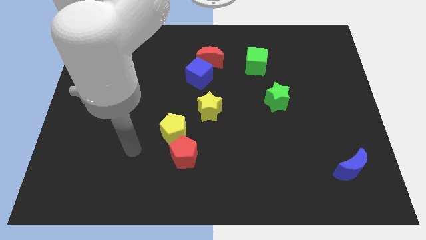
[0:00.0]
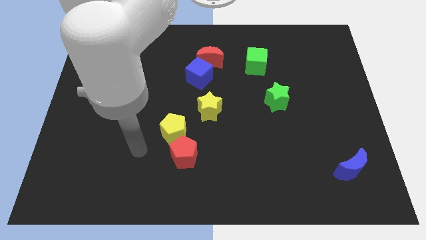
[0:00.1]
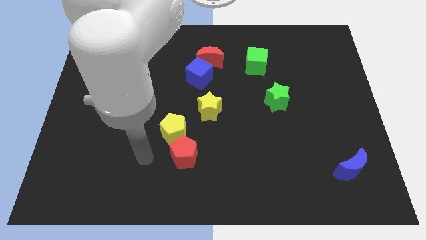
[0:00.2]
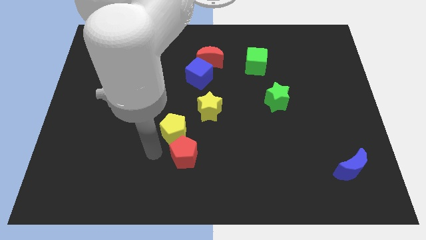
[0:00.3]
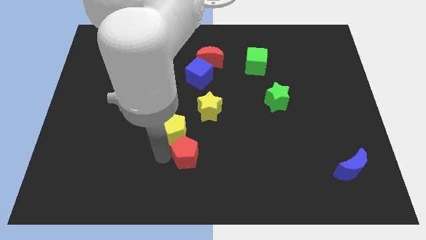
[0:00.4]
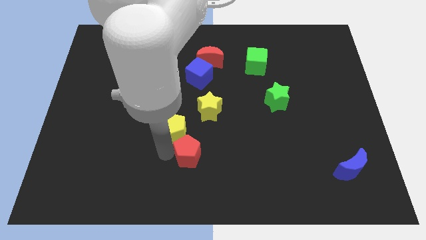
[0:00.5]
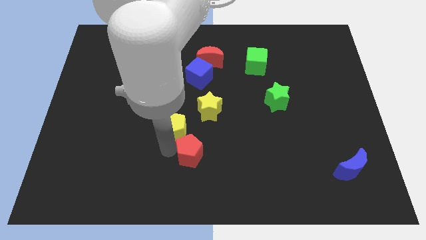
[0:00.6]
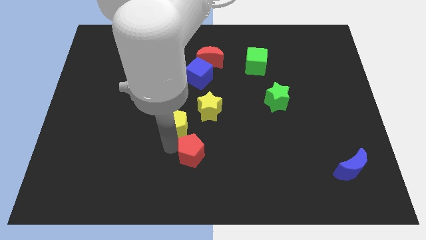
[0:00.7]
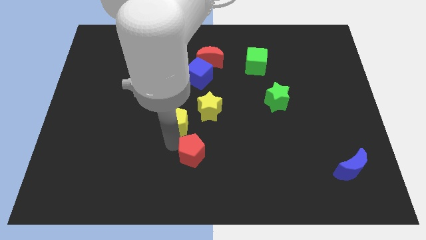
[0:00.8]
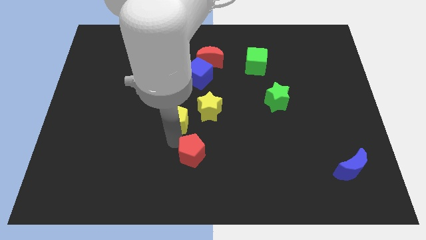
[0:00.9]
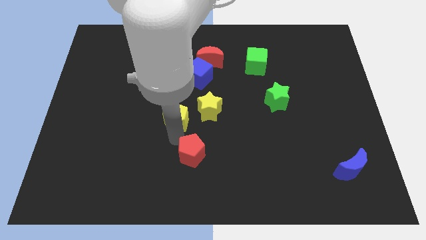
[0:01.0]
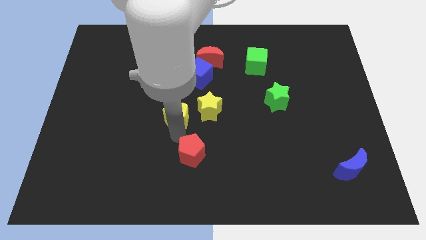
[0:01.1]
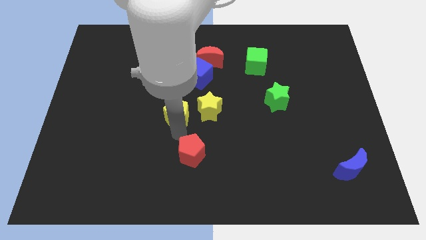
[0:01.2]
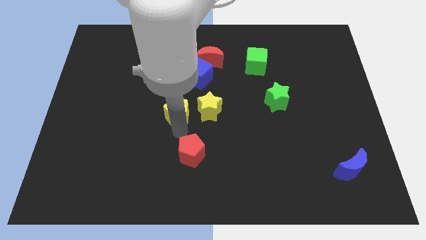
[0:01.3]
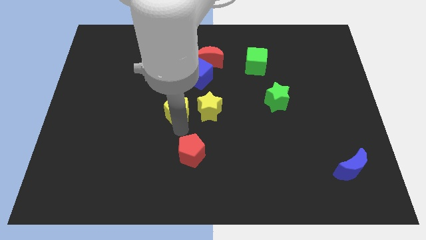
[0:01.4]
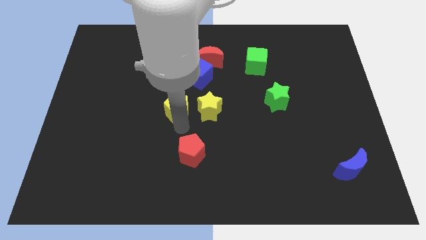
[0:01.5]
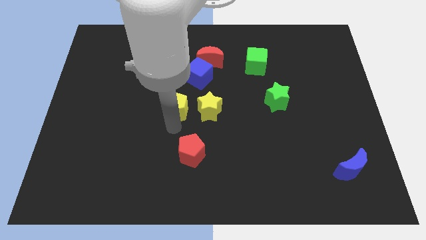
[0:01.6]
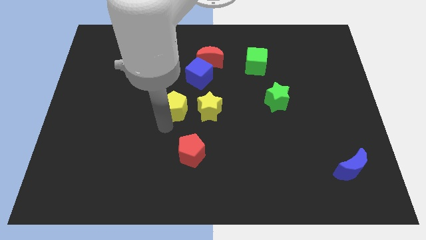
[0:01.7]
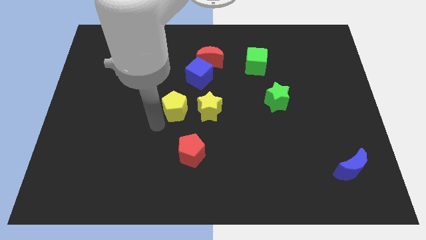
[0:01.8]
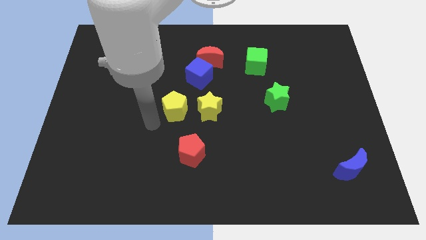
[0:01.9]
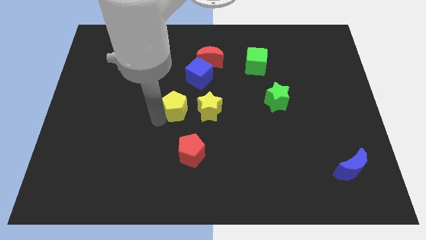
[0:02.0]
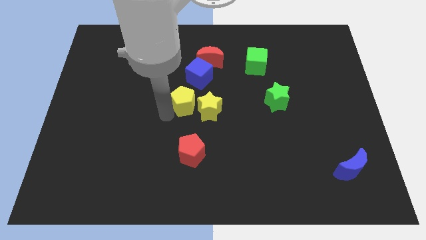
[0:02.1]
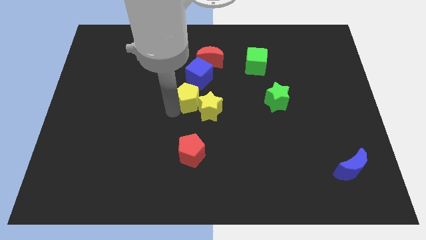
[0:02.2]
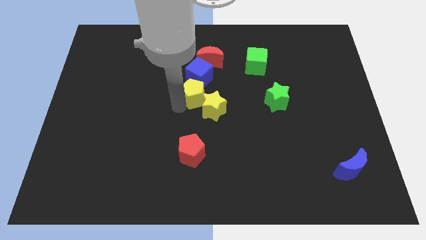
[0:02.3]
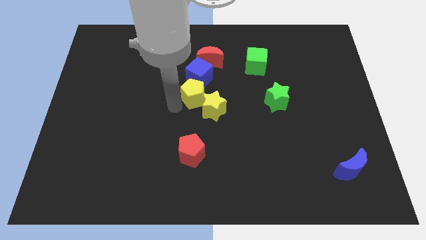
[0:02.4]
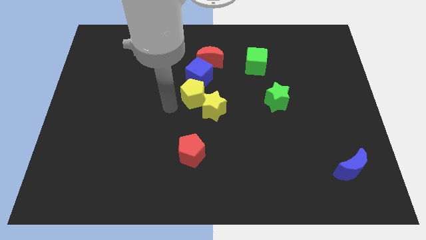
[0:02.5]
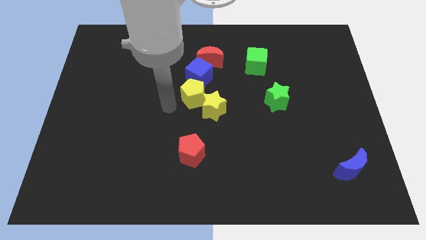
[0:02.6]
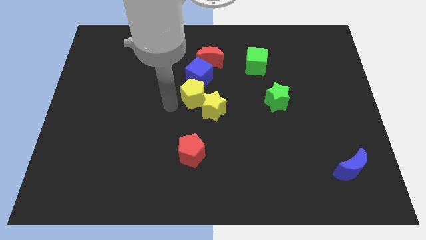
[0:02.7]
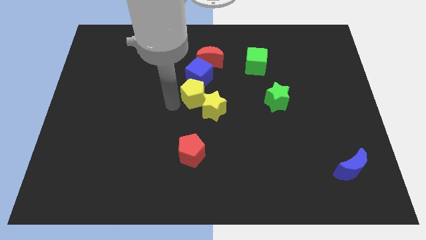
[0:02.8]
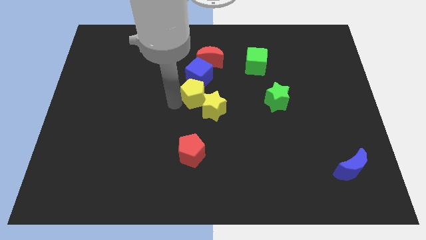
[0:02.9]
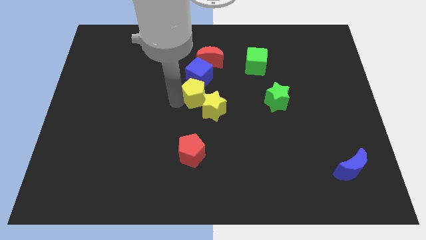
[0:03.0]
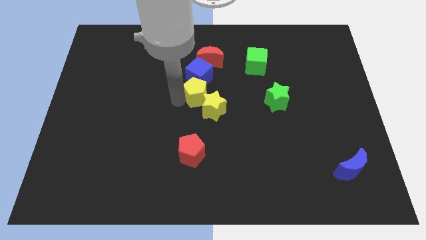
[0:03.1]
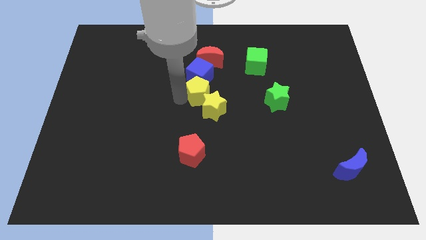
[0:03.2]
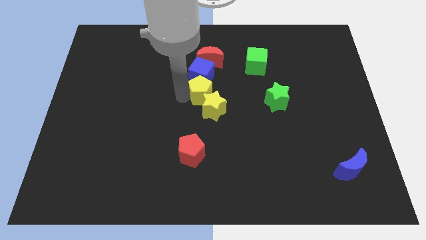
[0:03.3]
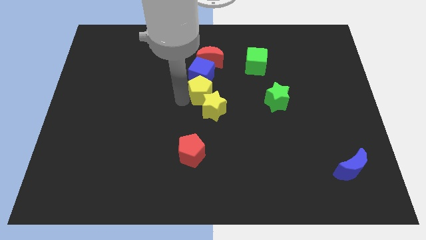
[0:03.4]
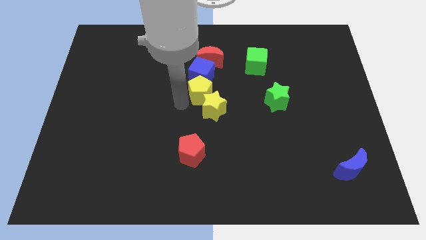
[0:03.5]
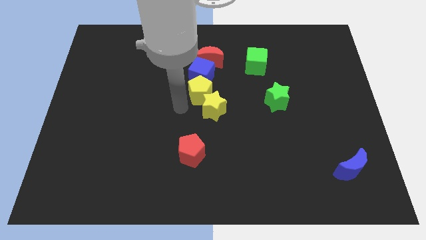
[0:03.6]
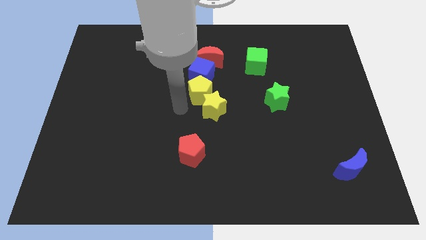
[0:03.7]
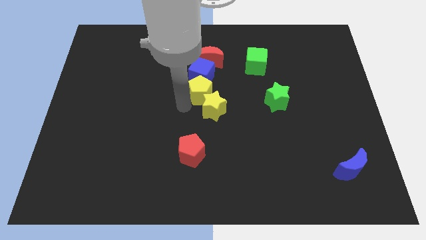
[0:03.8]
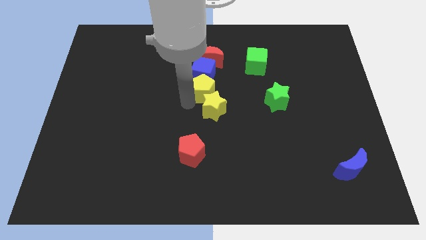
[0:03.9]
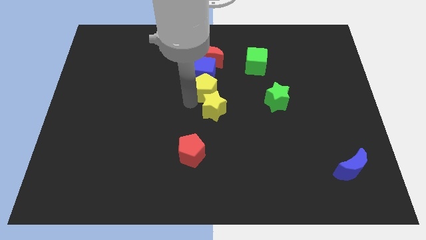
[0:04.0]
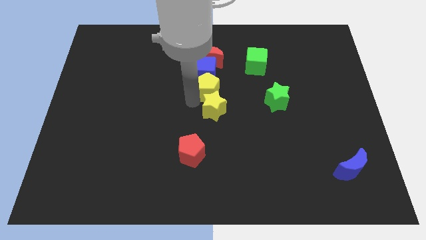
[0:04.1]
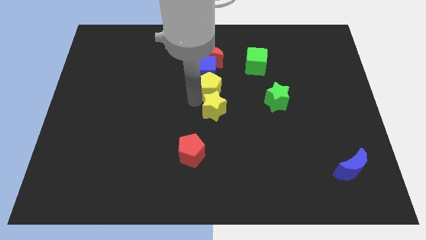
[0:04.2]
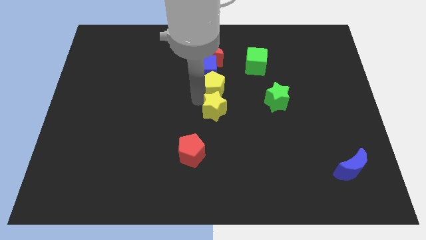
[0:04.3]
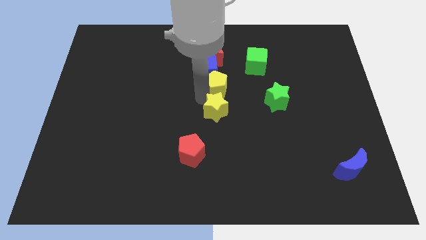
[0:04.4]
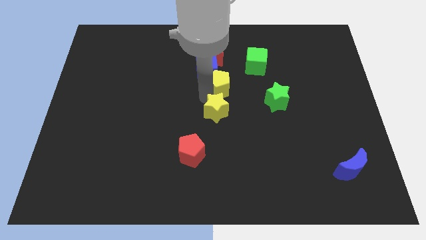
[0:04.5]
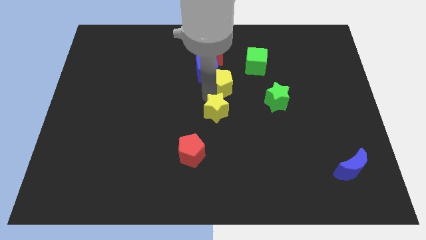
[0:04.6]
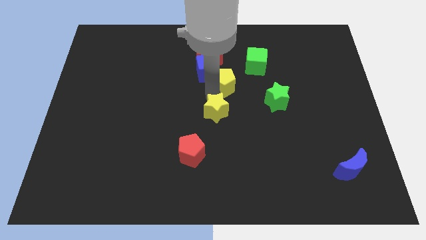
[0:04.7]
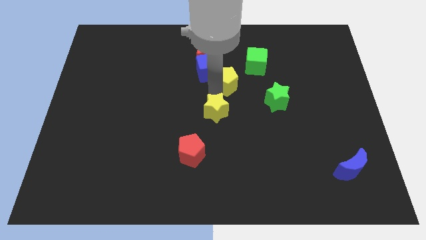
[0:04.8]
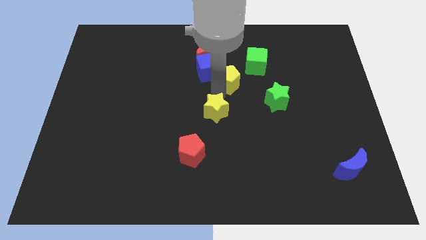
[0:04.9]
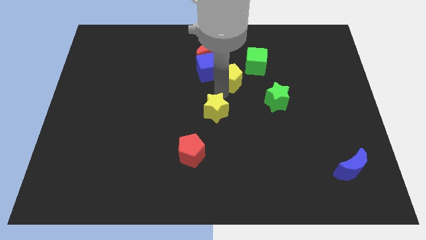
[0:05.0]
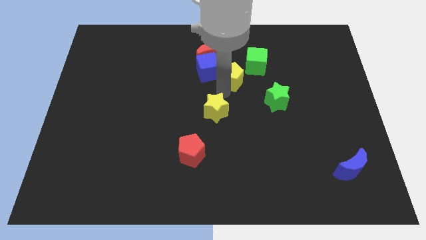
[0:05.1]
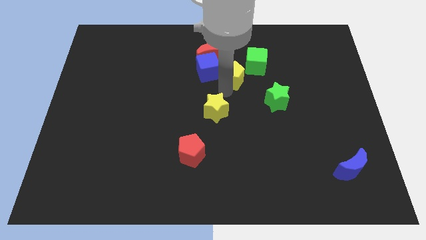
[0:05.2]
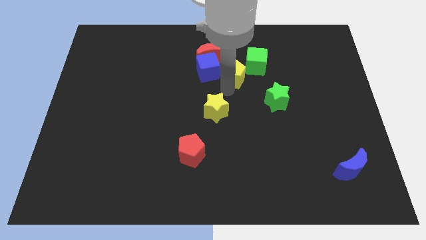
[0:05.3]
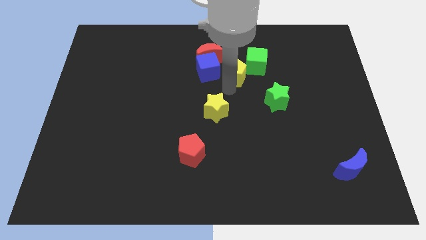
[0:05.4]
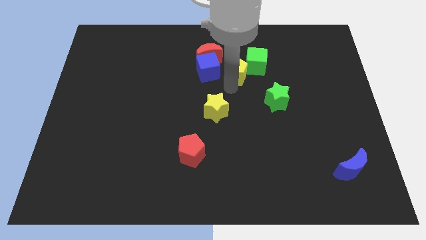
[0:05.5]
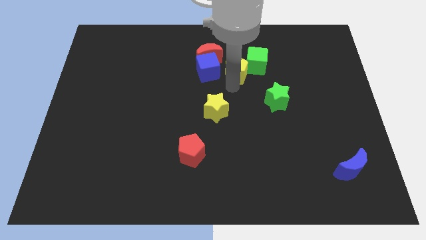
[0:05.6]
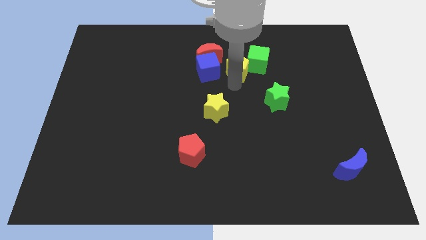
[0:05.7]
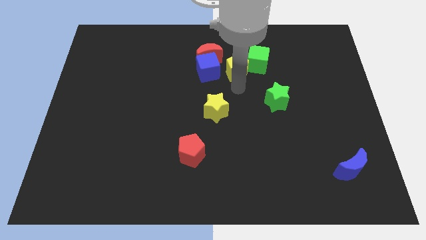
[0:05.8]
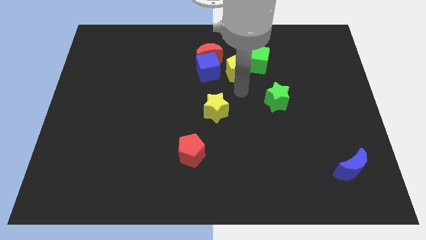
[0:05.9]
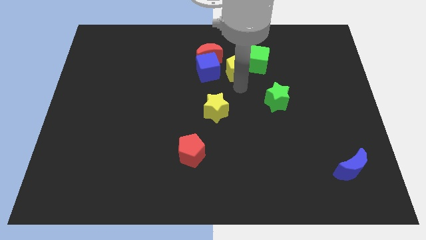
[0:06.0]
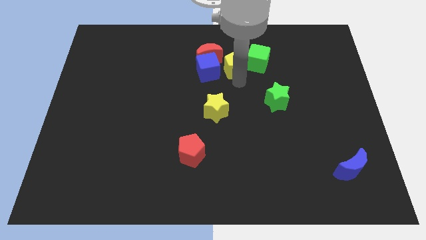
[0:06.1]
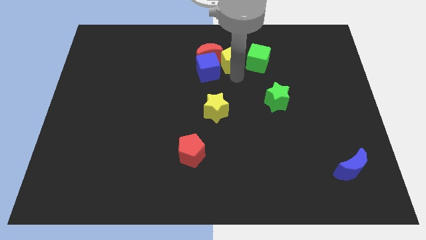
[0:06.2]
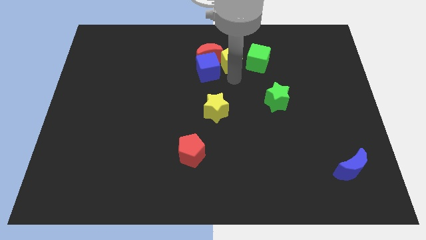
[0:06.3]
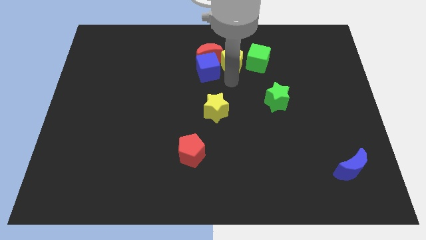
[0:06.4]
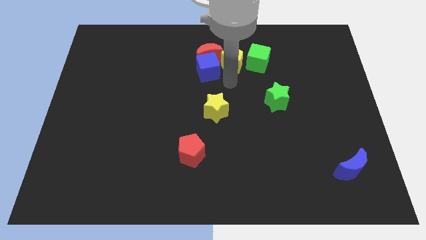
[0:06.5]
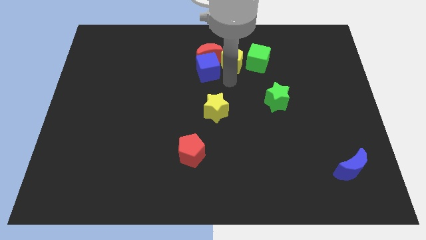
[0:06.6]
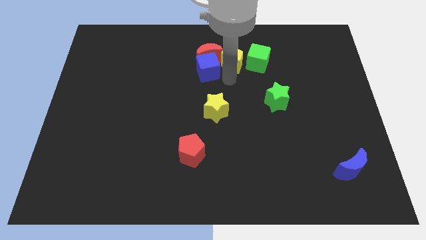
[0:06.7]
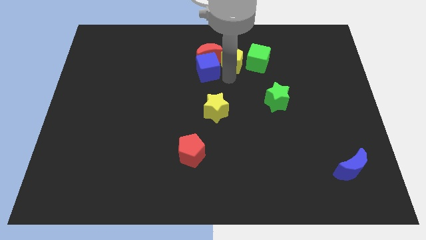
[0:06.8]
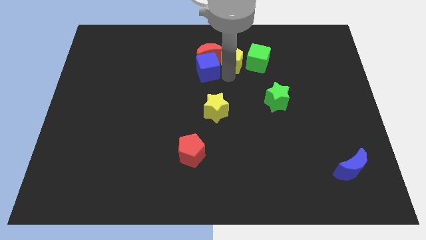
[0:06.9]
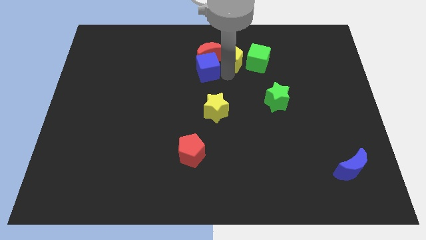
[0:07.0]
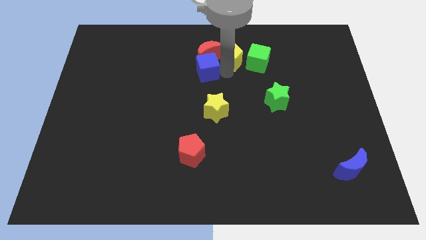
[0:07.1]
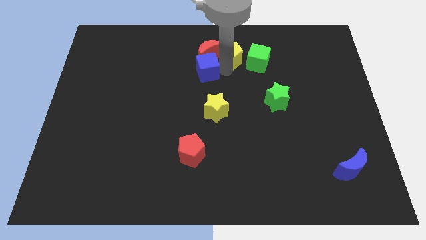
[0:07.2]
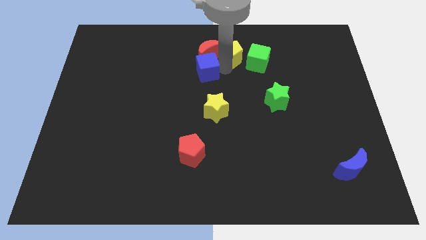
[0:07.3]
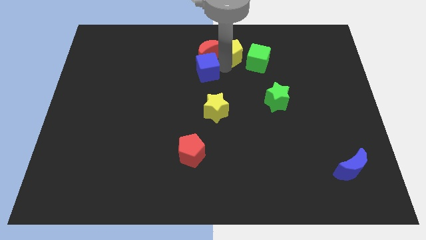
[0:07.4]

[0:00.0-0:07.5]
slide the yellow pentagon to the towards your base

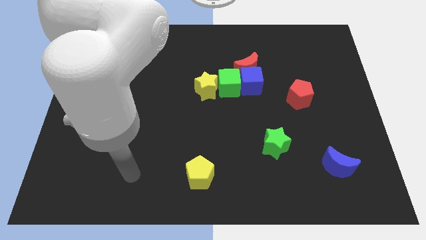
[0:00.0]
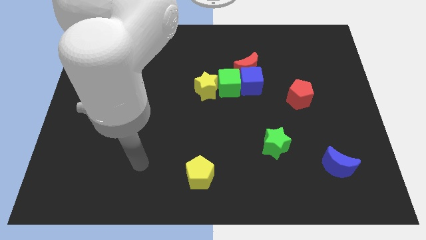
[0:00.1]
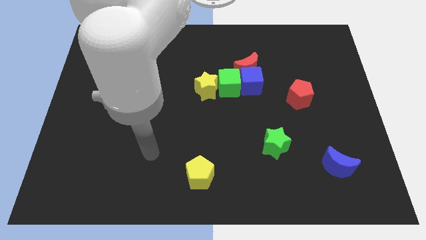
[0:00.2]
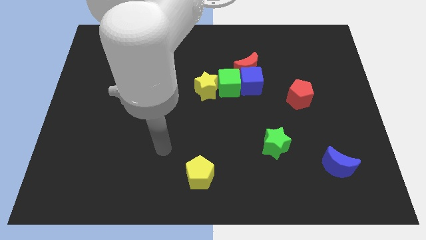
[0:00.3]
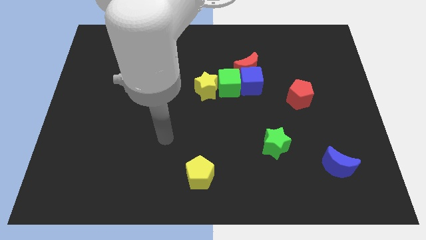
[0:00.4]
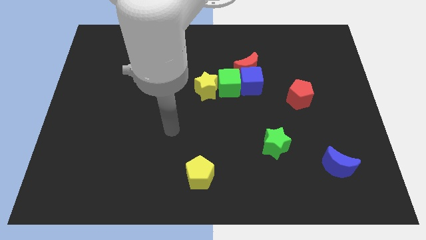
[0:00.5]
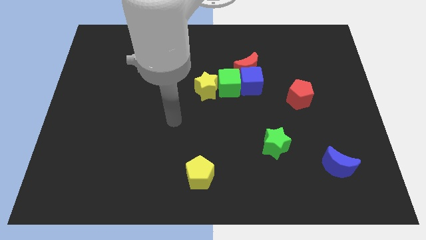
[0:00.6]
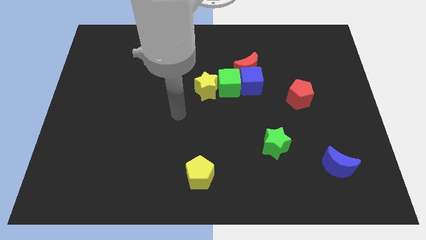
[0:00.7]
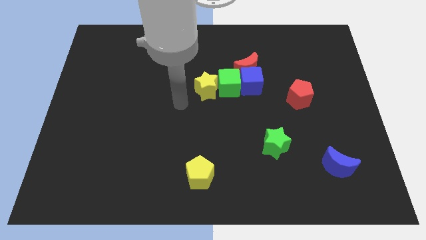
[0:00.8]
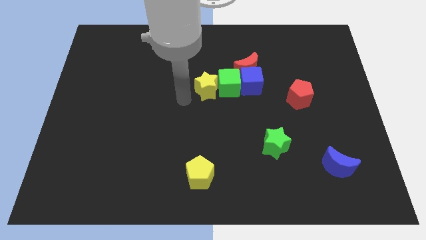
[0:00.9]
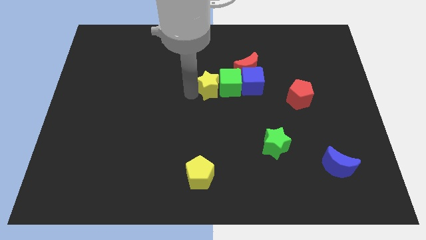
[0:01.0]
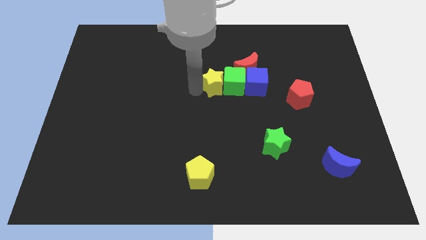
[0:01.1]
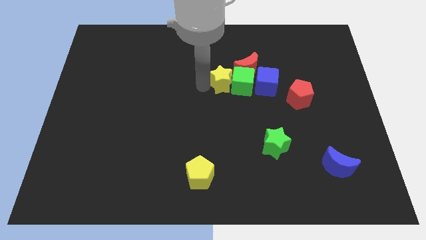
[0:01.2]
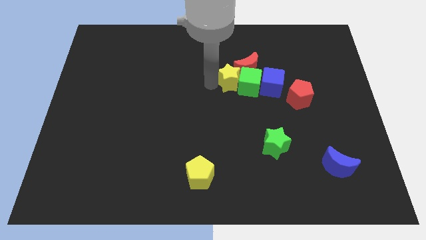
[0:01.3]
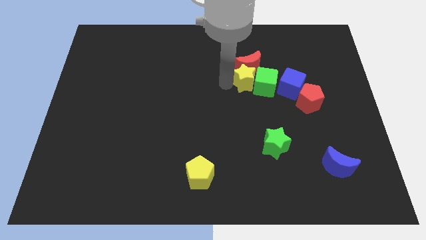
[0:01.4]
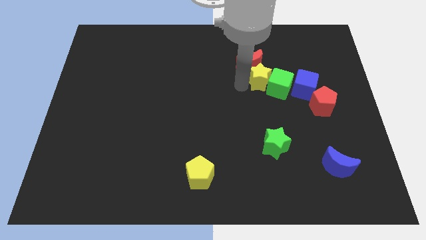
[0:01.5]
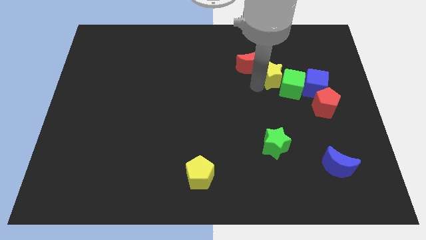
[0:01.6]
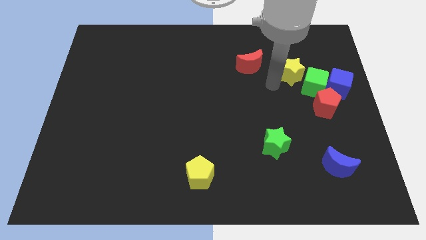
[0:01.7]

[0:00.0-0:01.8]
push the blue cube to the center right
